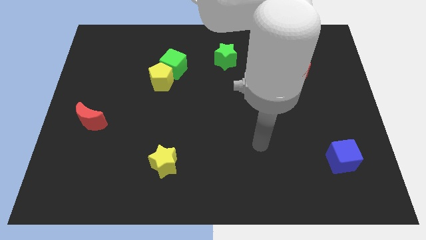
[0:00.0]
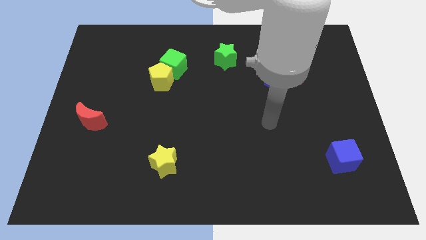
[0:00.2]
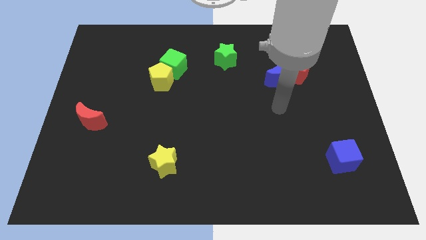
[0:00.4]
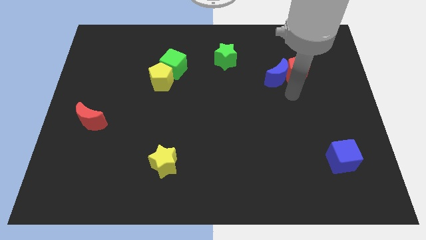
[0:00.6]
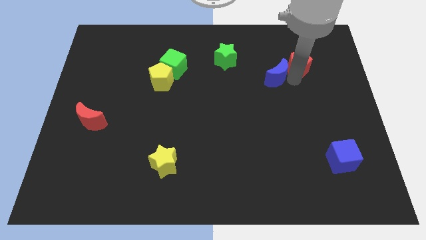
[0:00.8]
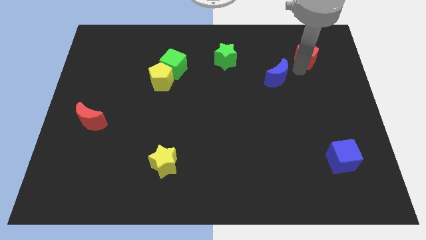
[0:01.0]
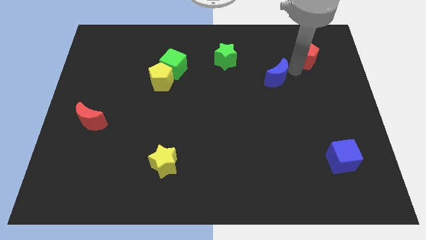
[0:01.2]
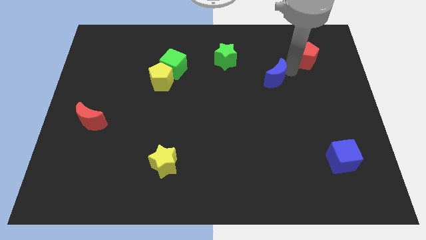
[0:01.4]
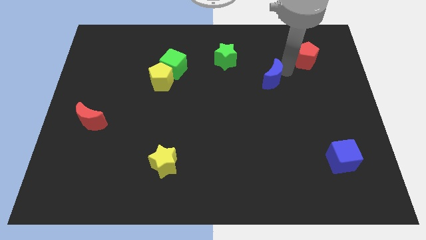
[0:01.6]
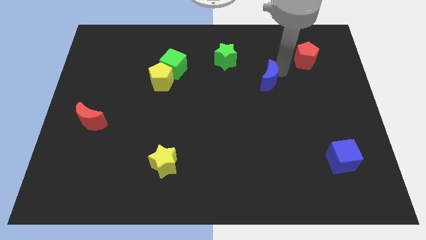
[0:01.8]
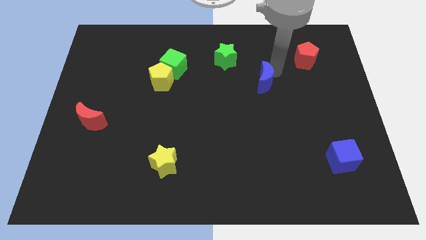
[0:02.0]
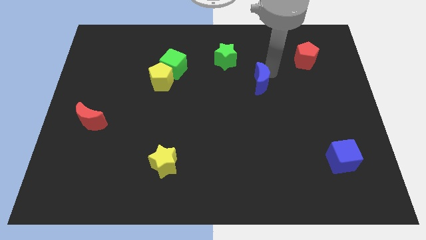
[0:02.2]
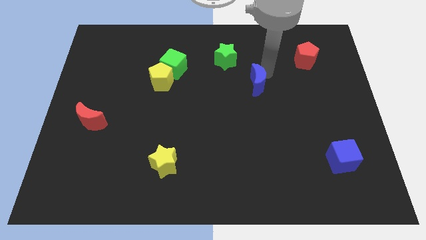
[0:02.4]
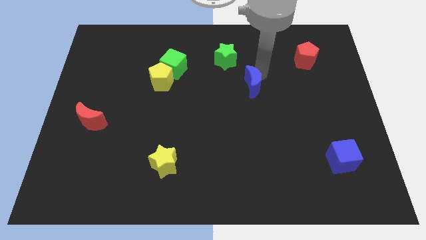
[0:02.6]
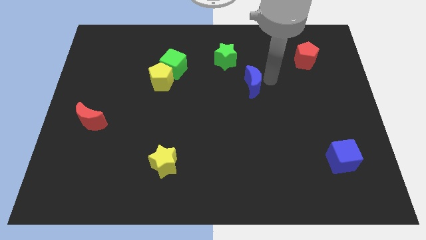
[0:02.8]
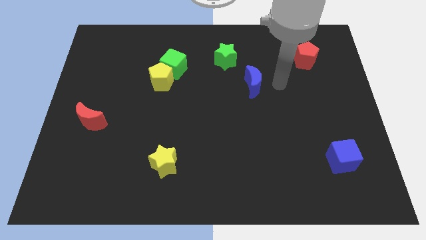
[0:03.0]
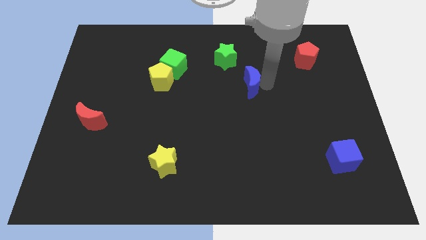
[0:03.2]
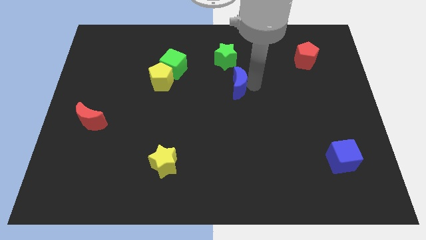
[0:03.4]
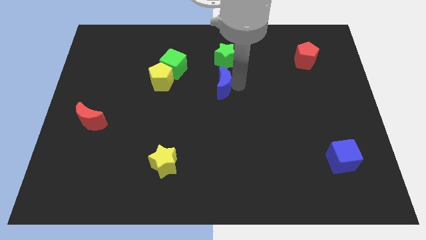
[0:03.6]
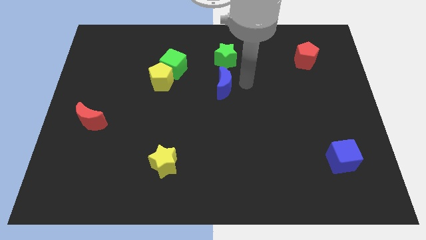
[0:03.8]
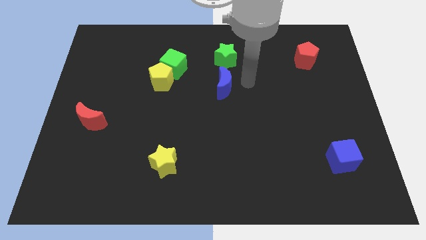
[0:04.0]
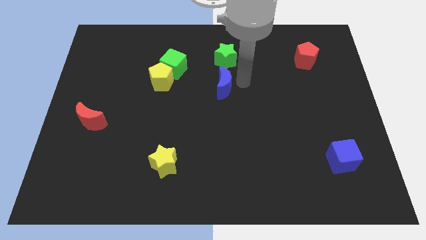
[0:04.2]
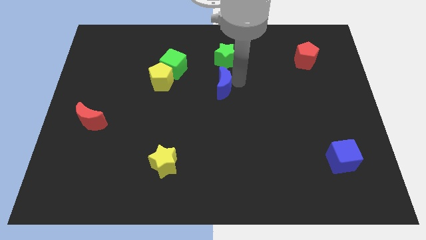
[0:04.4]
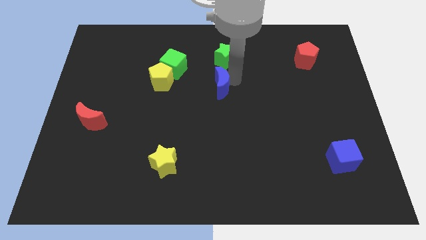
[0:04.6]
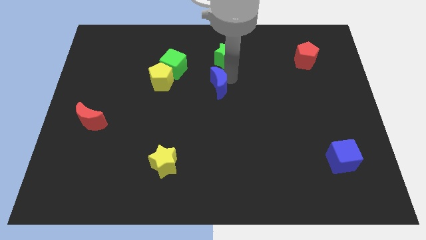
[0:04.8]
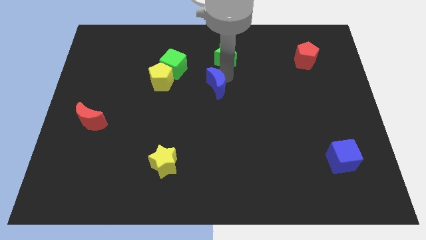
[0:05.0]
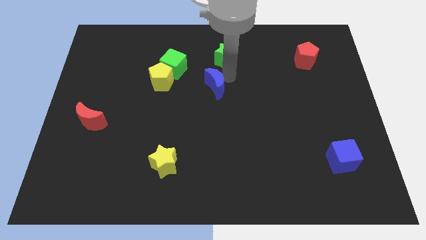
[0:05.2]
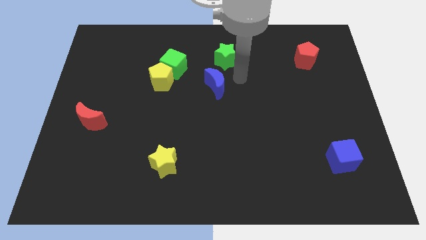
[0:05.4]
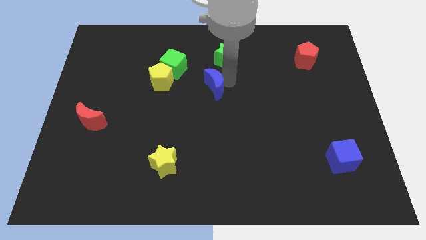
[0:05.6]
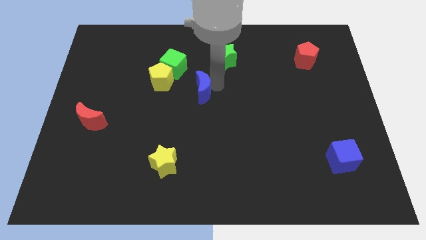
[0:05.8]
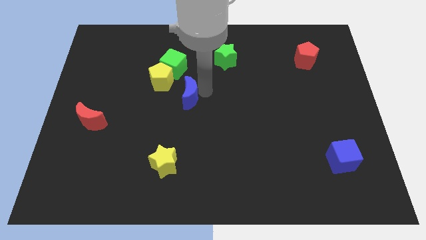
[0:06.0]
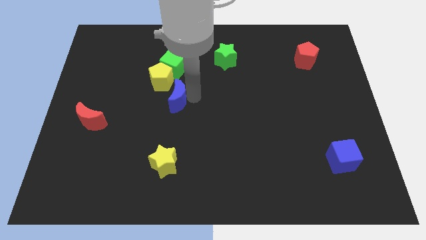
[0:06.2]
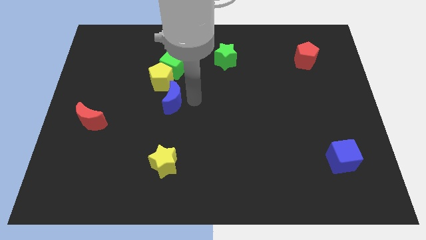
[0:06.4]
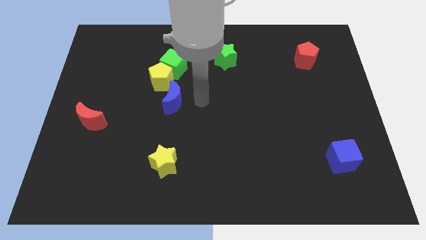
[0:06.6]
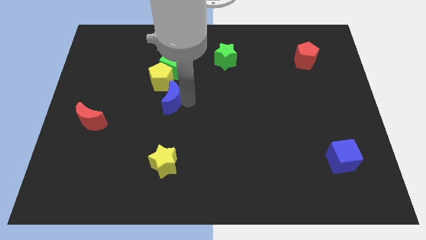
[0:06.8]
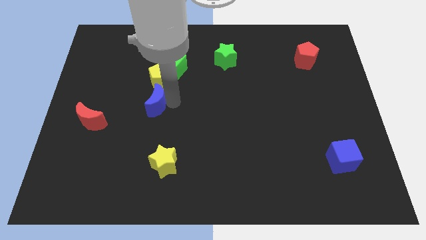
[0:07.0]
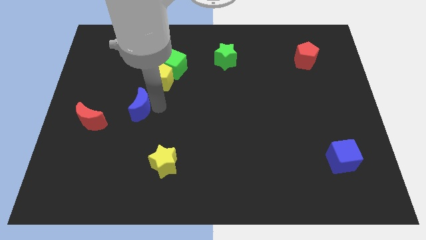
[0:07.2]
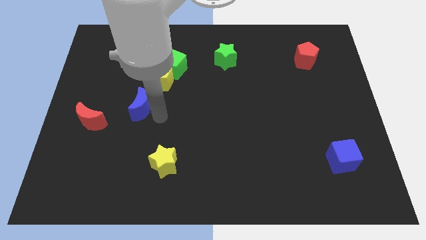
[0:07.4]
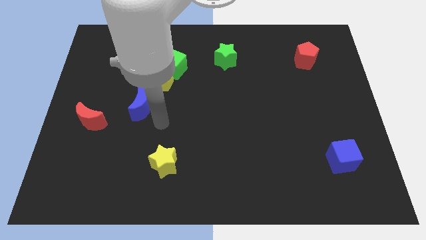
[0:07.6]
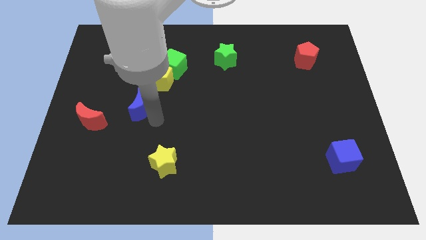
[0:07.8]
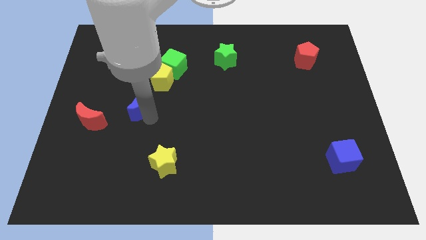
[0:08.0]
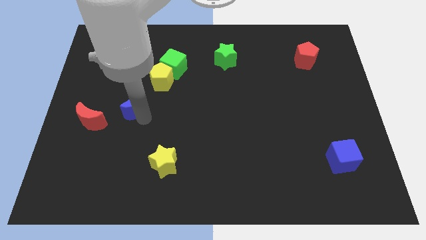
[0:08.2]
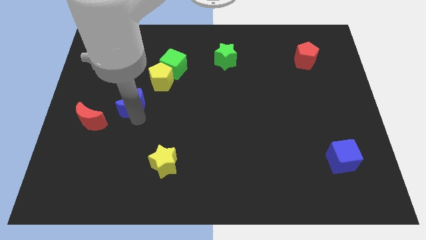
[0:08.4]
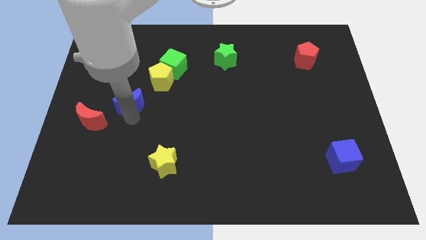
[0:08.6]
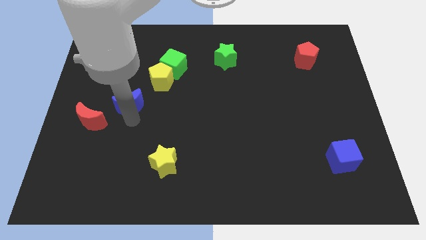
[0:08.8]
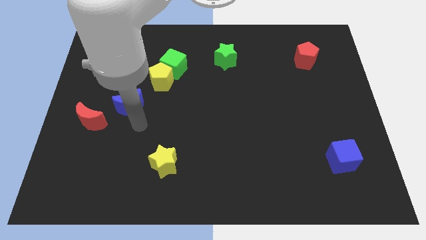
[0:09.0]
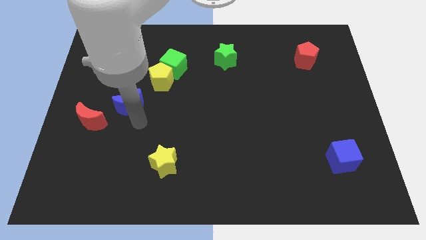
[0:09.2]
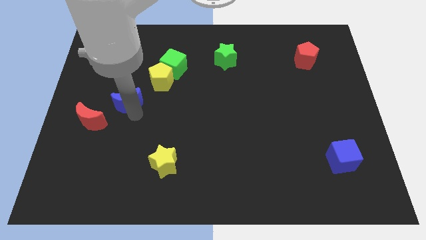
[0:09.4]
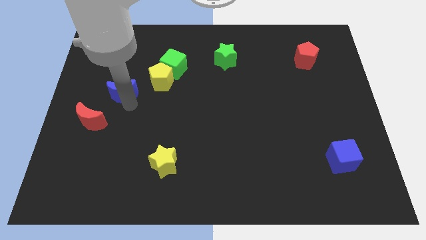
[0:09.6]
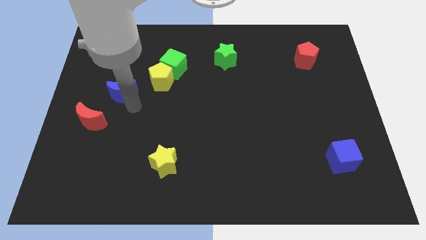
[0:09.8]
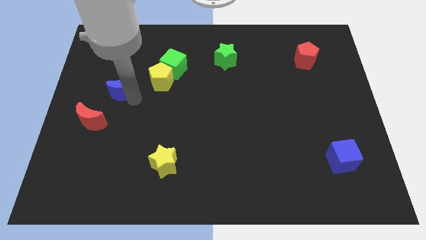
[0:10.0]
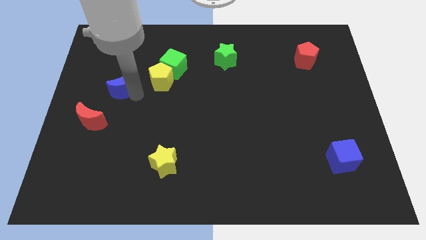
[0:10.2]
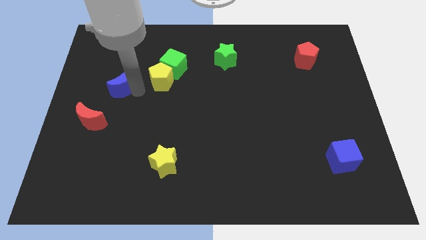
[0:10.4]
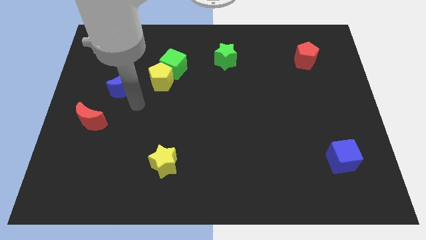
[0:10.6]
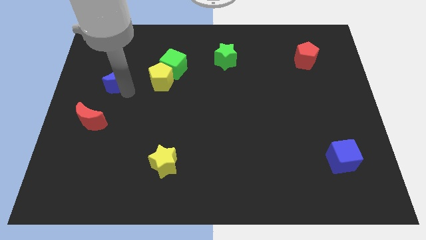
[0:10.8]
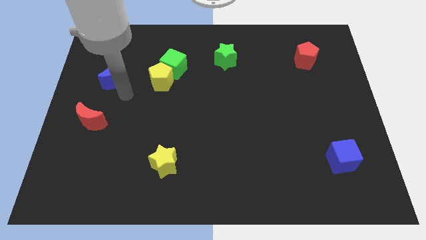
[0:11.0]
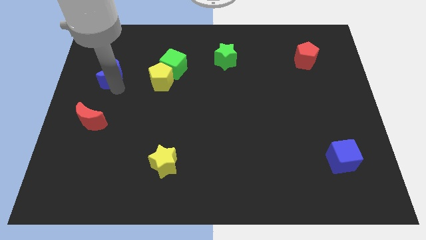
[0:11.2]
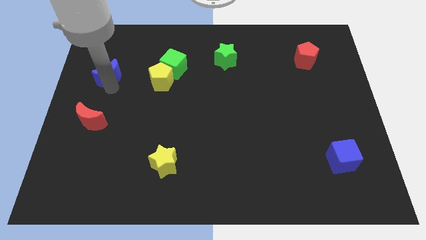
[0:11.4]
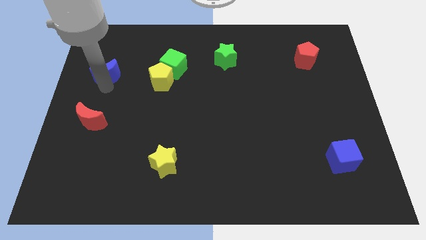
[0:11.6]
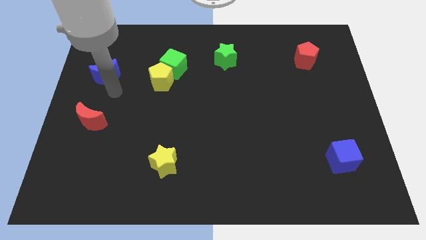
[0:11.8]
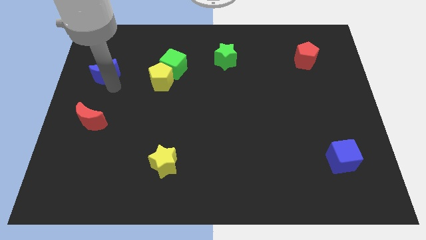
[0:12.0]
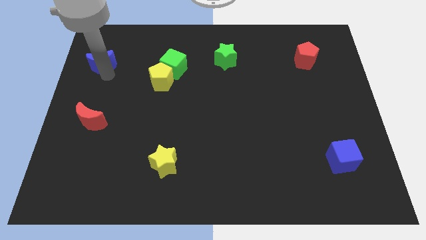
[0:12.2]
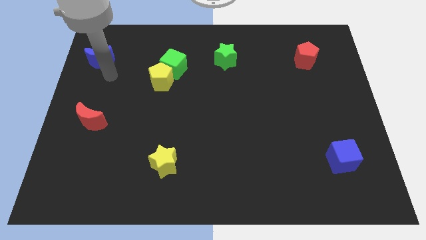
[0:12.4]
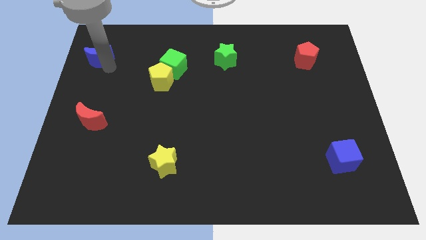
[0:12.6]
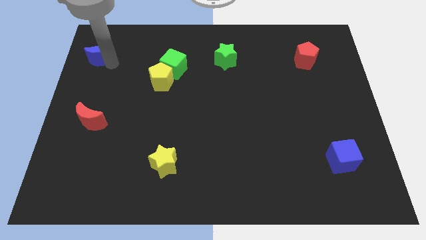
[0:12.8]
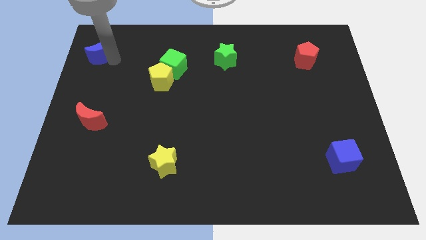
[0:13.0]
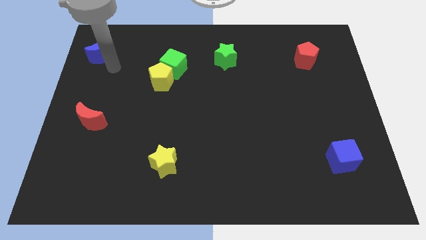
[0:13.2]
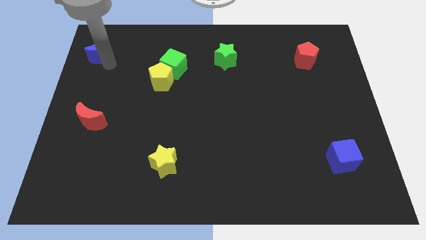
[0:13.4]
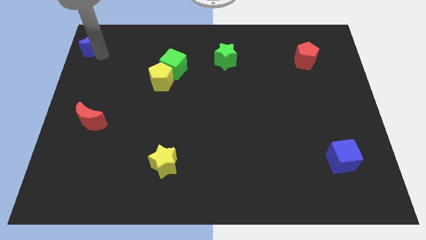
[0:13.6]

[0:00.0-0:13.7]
move the blue moon to the top left
